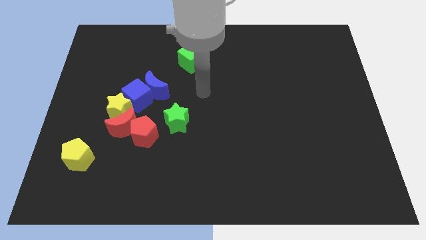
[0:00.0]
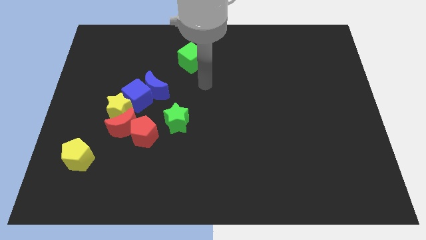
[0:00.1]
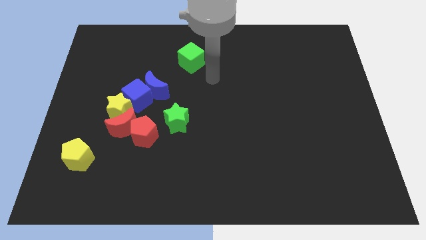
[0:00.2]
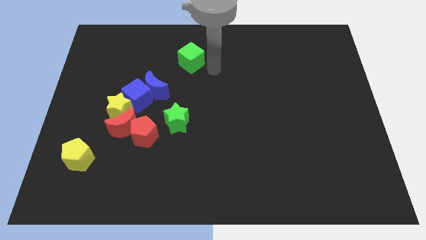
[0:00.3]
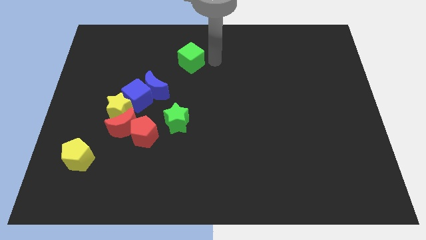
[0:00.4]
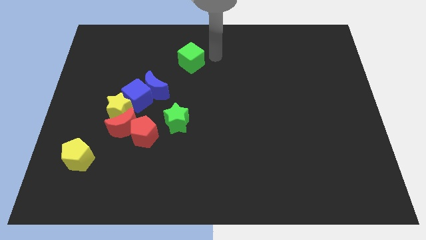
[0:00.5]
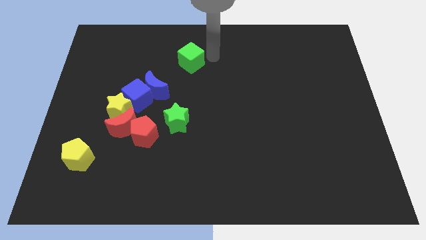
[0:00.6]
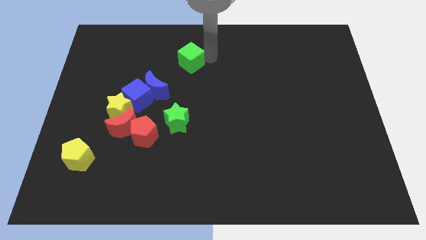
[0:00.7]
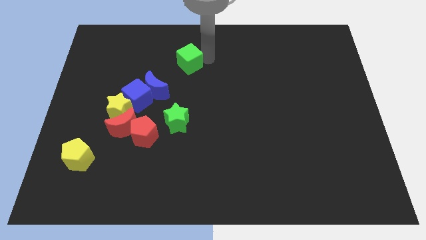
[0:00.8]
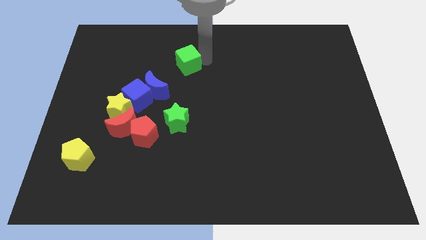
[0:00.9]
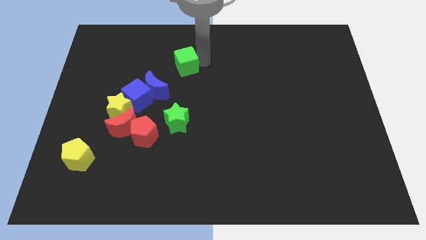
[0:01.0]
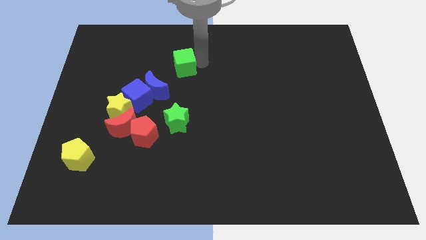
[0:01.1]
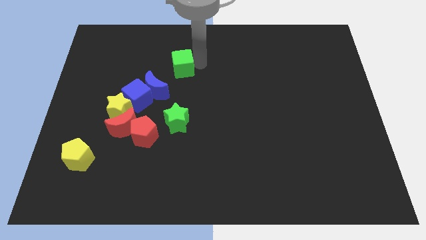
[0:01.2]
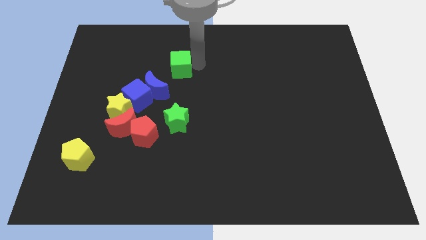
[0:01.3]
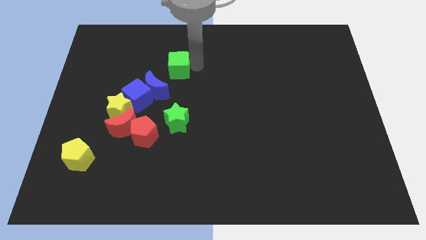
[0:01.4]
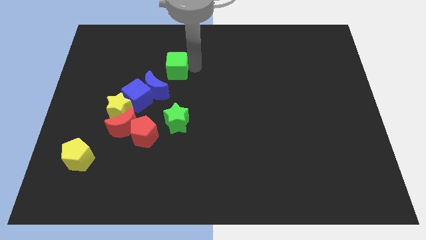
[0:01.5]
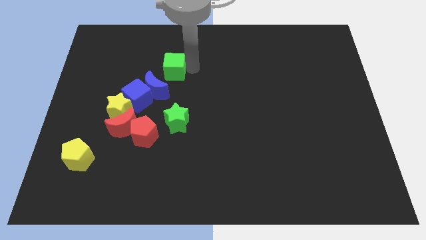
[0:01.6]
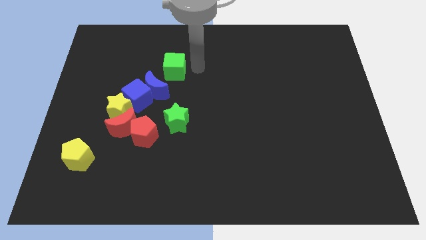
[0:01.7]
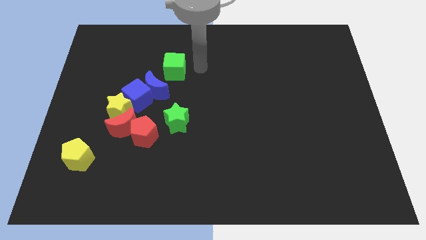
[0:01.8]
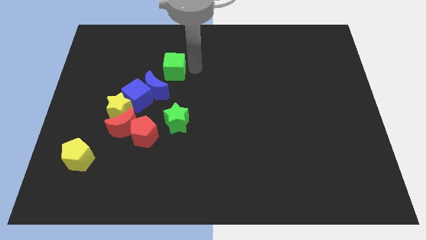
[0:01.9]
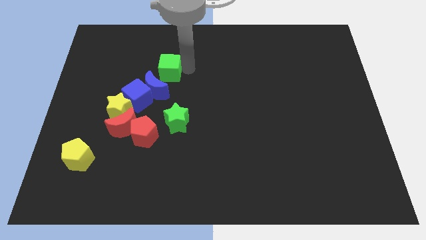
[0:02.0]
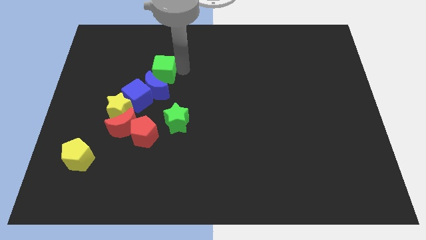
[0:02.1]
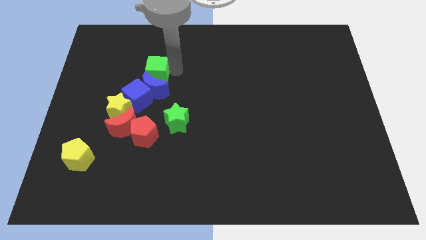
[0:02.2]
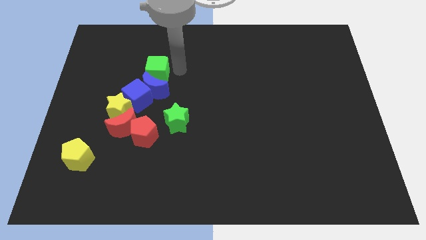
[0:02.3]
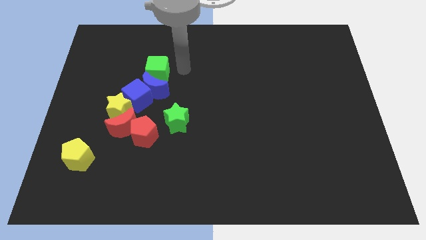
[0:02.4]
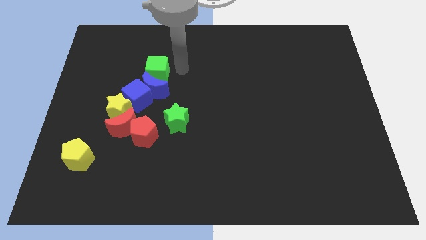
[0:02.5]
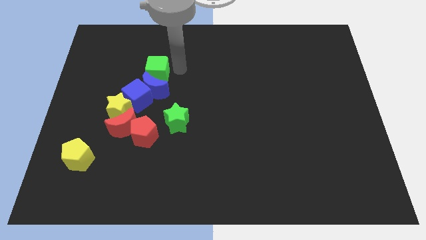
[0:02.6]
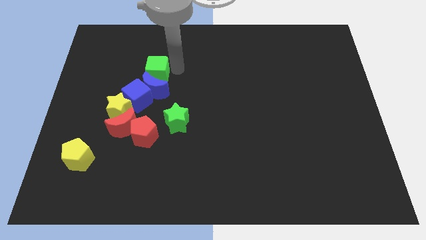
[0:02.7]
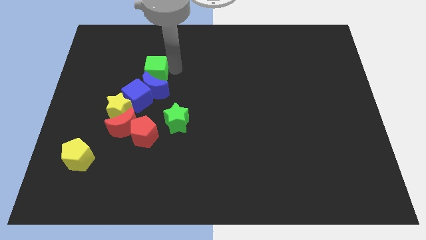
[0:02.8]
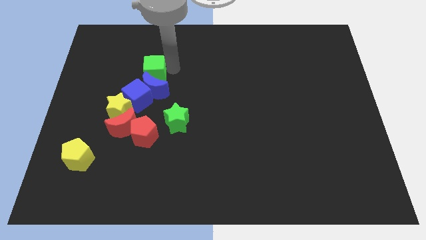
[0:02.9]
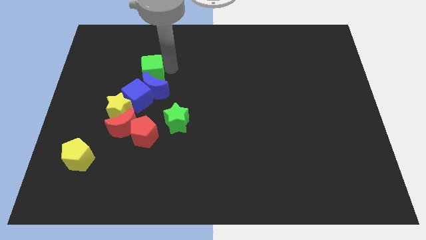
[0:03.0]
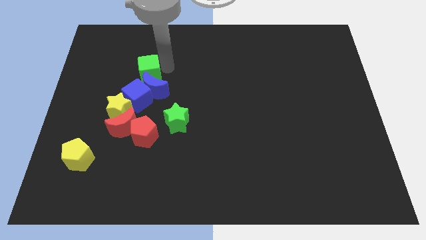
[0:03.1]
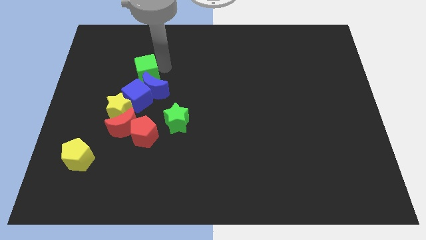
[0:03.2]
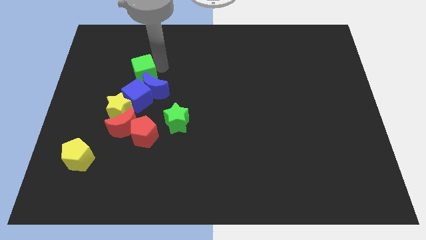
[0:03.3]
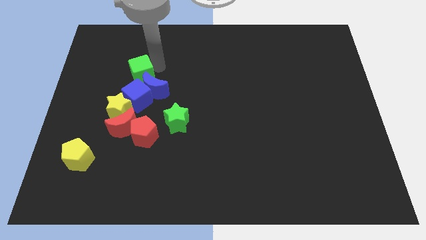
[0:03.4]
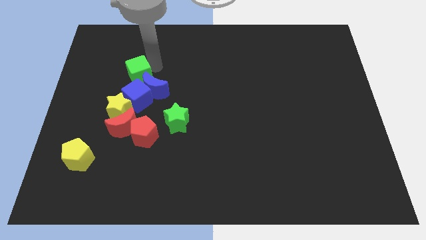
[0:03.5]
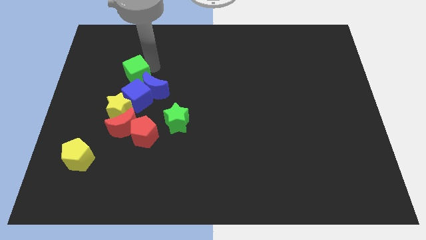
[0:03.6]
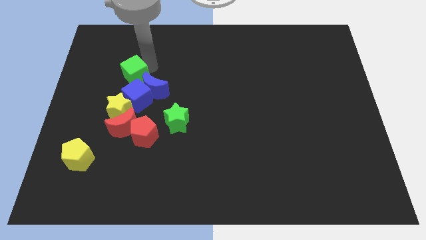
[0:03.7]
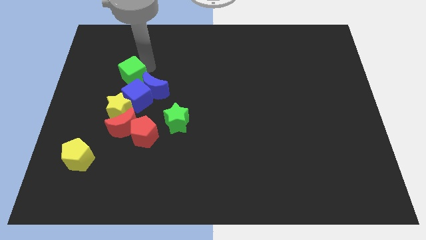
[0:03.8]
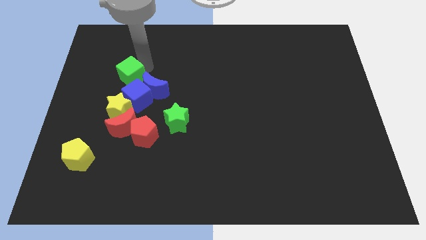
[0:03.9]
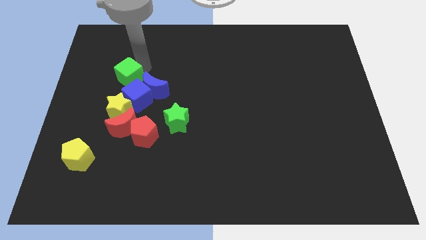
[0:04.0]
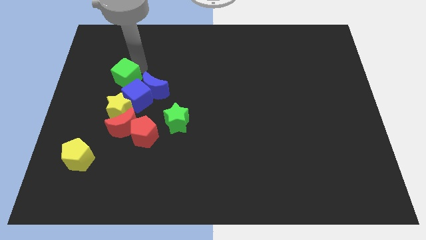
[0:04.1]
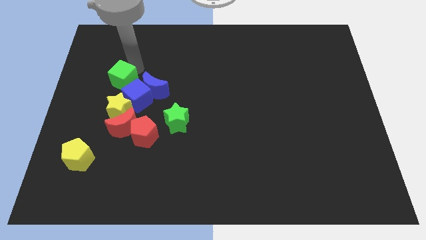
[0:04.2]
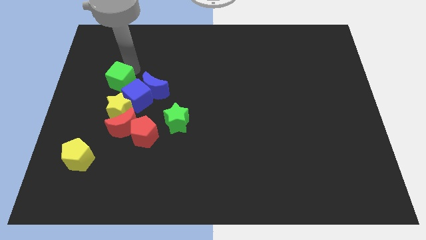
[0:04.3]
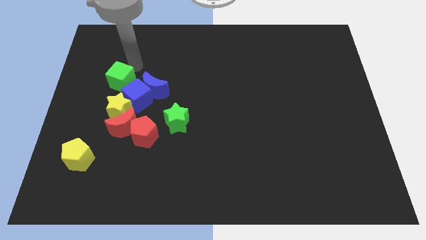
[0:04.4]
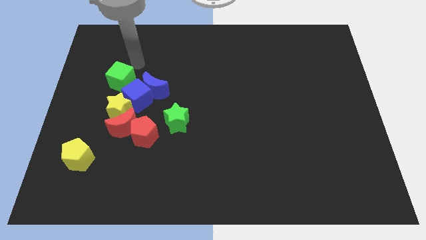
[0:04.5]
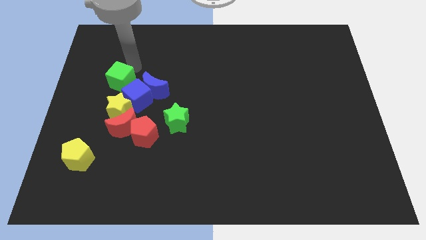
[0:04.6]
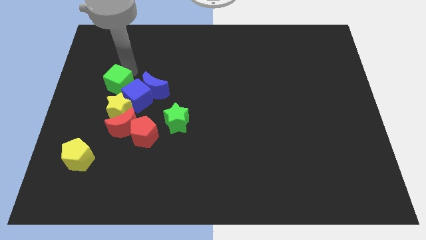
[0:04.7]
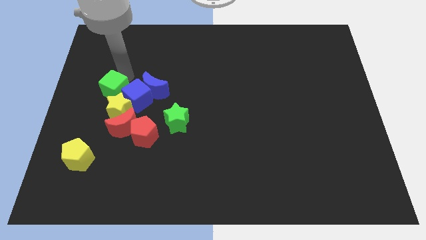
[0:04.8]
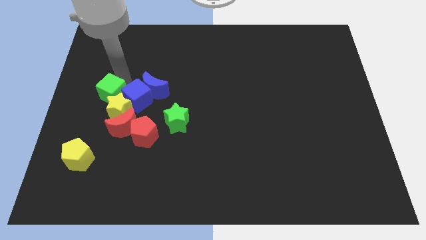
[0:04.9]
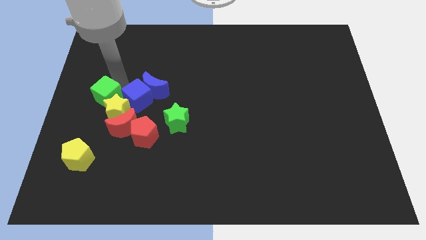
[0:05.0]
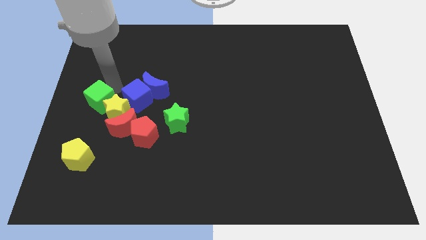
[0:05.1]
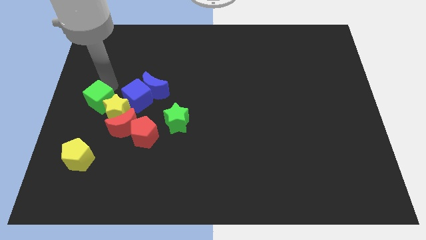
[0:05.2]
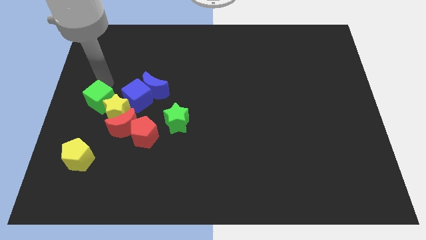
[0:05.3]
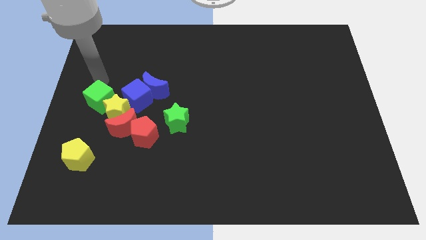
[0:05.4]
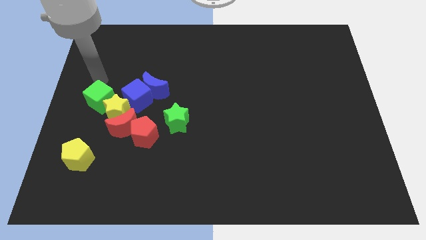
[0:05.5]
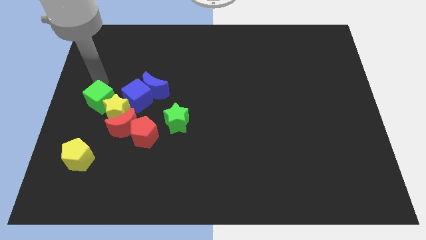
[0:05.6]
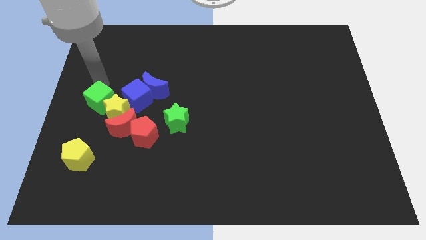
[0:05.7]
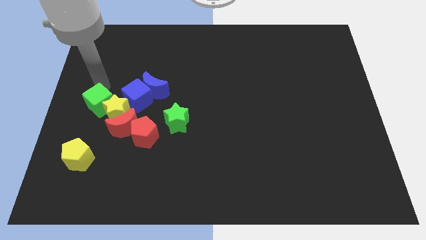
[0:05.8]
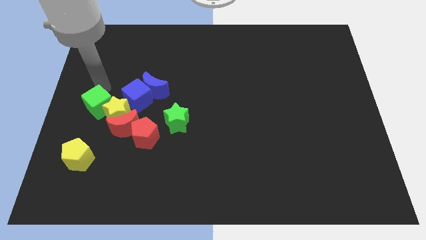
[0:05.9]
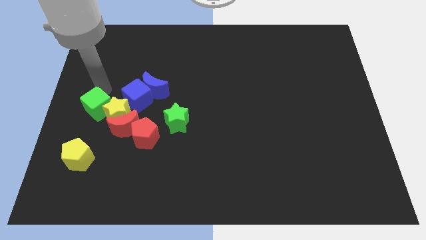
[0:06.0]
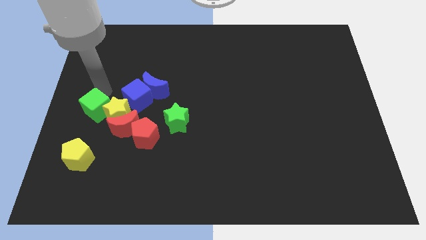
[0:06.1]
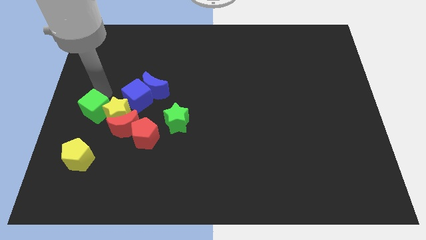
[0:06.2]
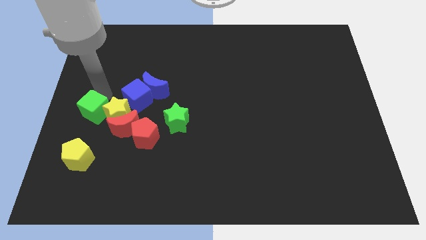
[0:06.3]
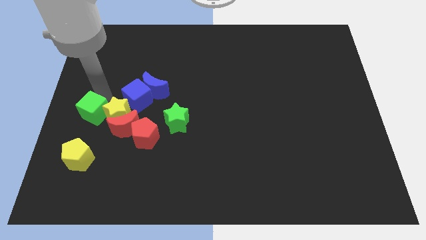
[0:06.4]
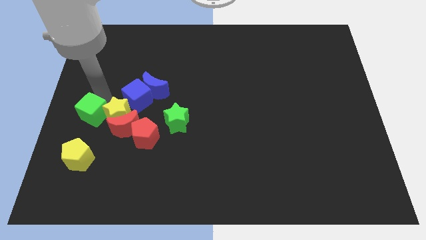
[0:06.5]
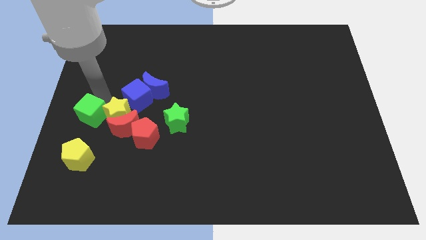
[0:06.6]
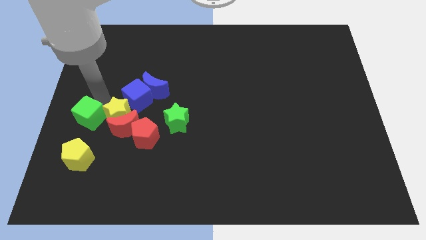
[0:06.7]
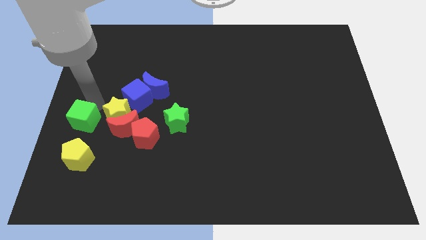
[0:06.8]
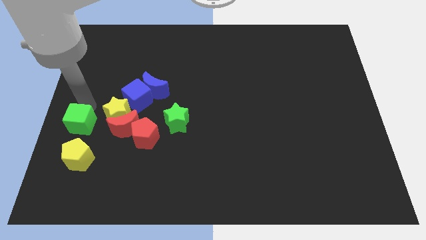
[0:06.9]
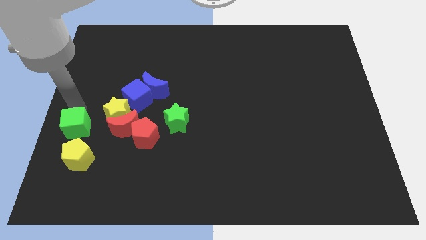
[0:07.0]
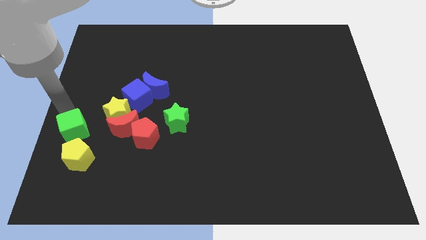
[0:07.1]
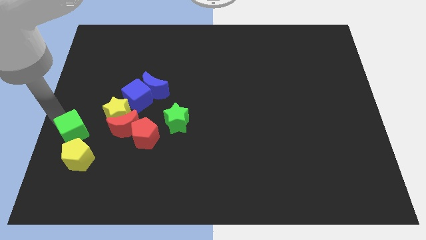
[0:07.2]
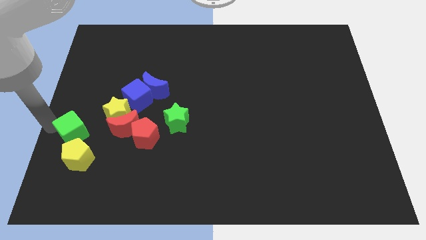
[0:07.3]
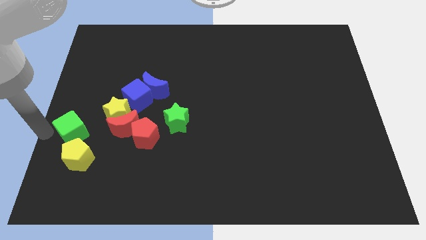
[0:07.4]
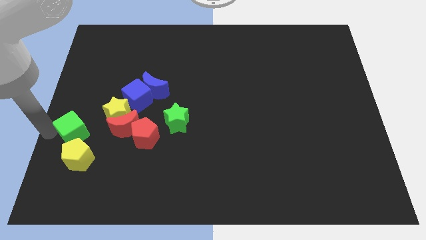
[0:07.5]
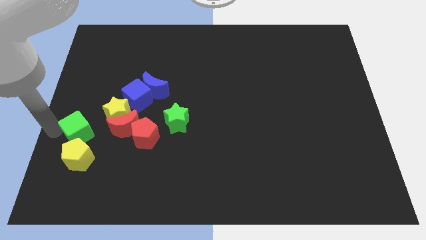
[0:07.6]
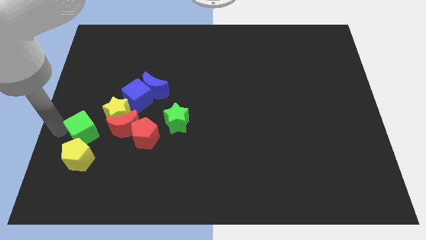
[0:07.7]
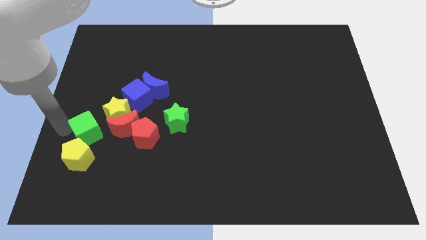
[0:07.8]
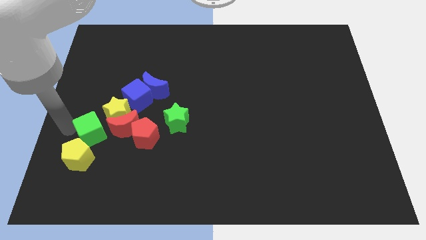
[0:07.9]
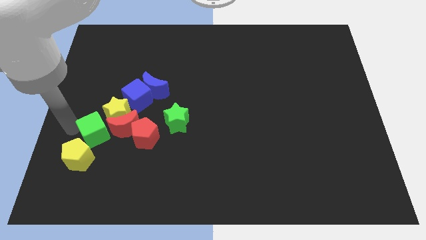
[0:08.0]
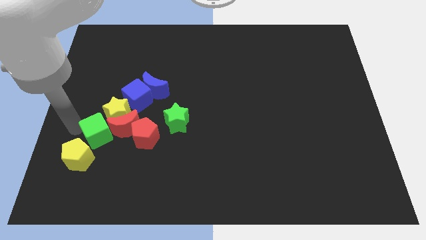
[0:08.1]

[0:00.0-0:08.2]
push the green cube to the red moon
